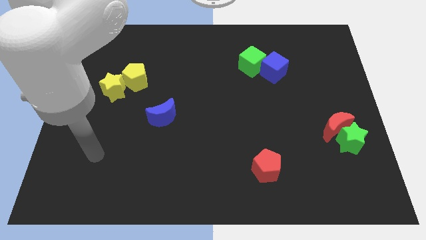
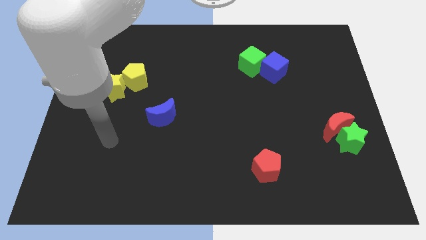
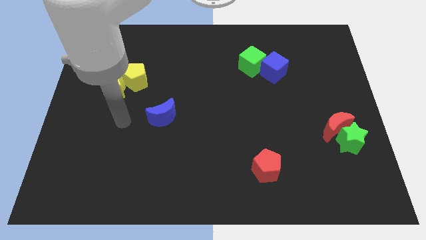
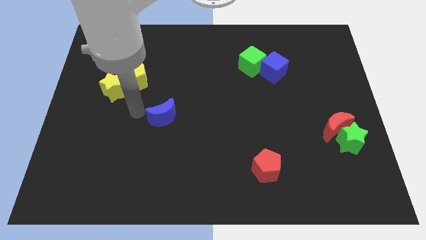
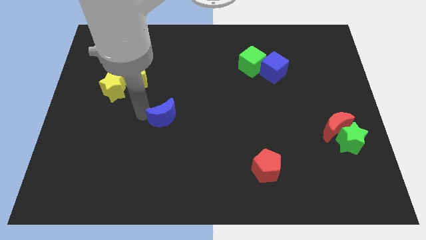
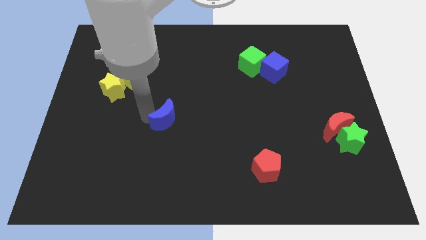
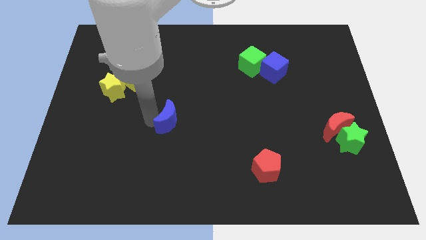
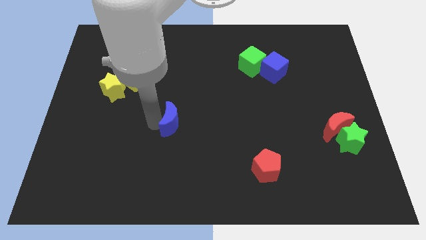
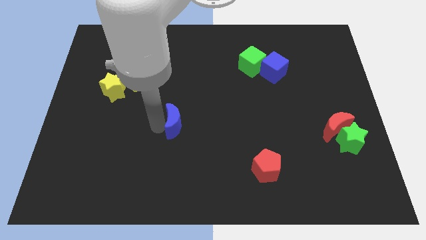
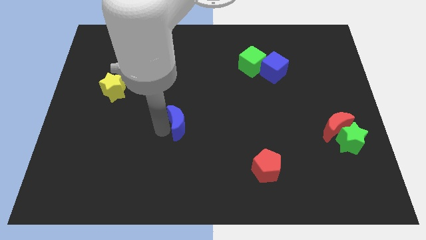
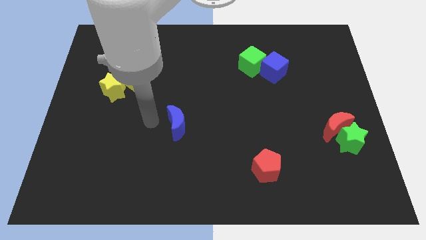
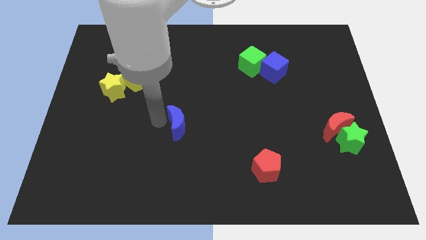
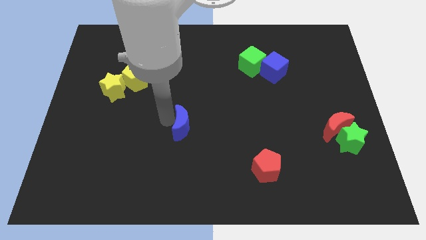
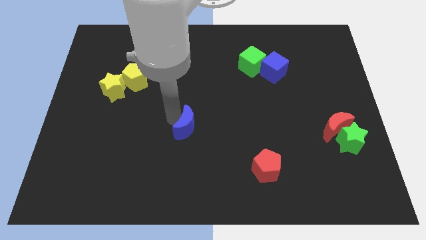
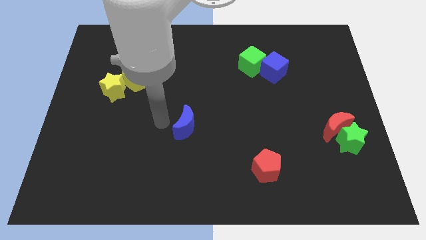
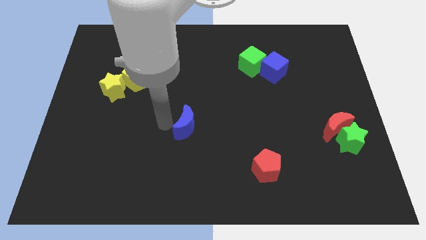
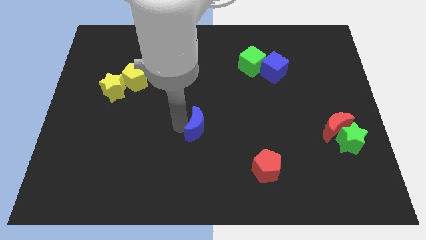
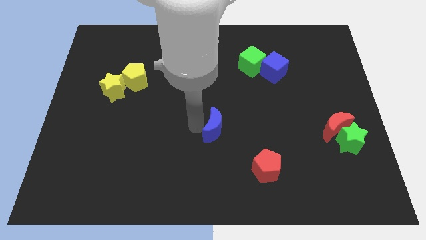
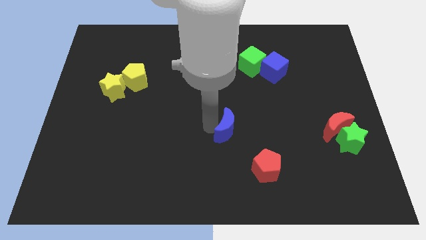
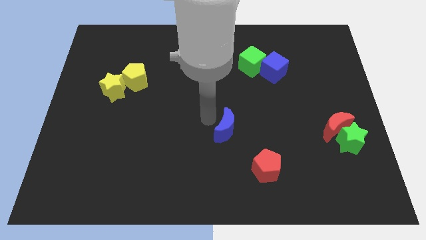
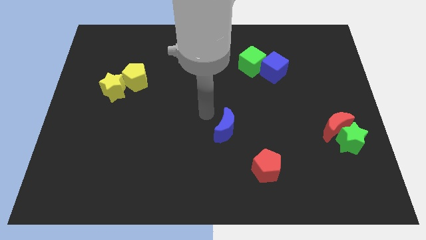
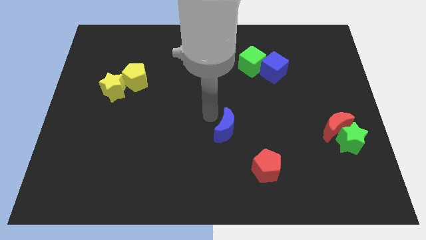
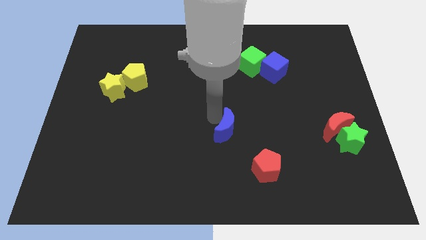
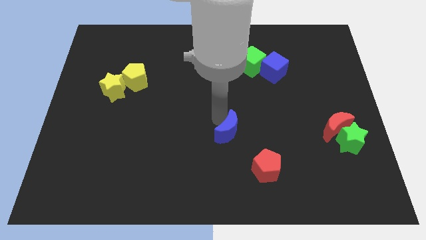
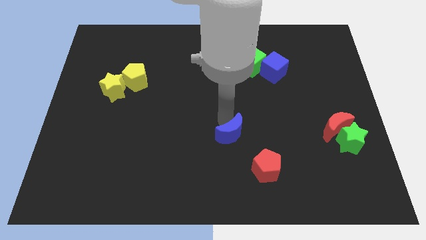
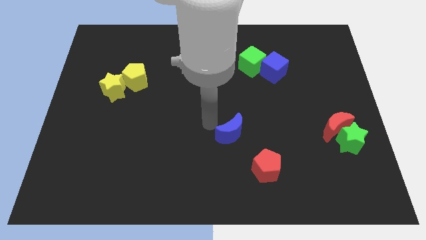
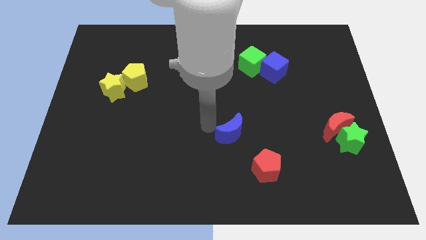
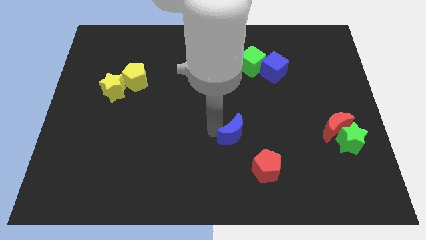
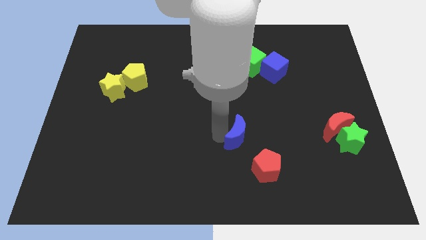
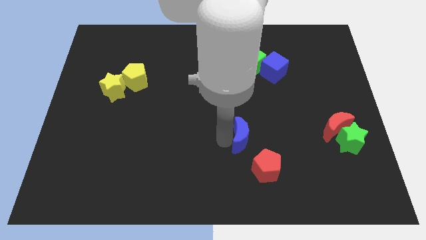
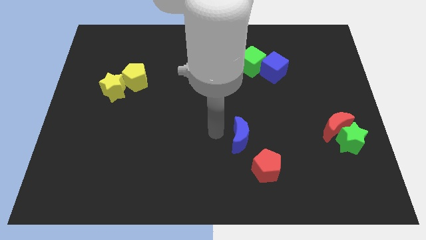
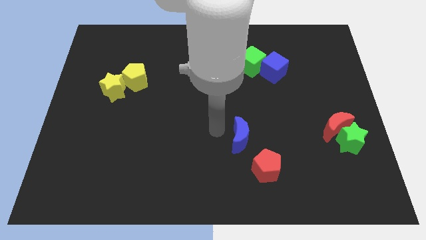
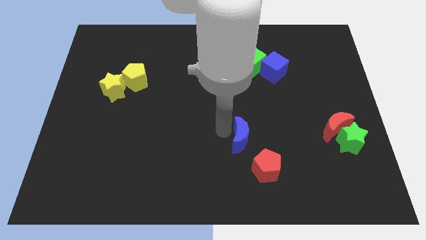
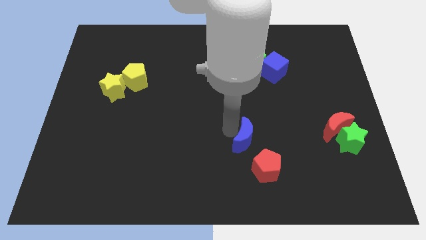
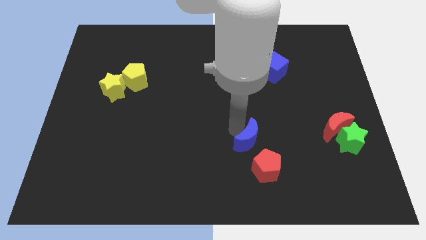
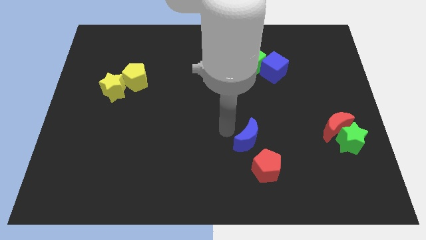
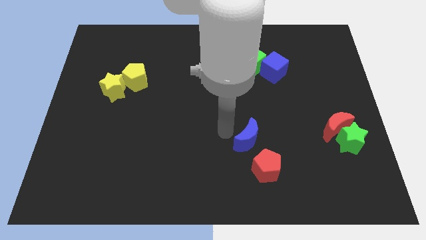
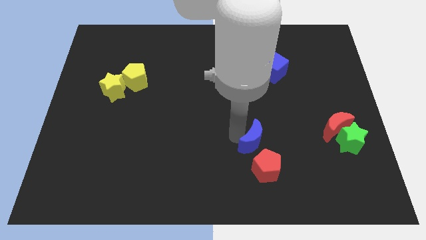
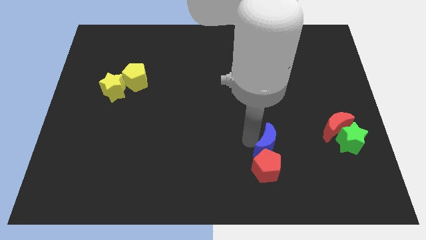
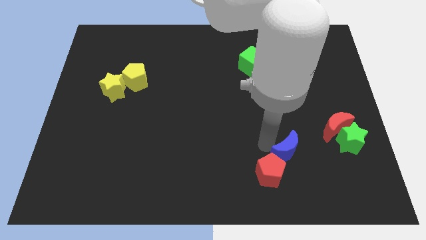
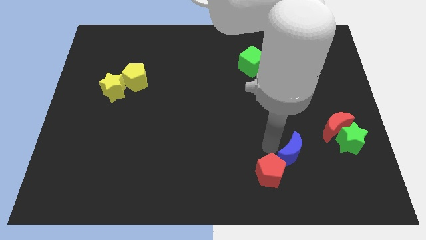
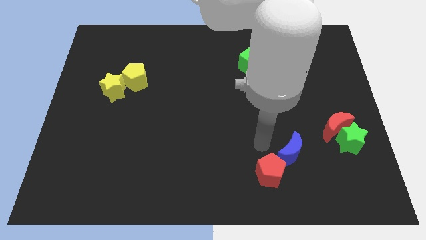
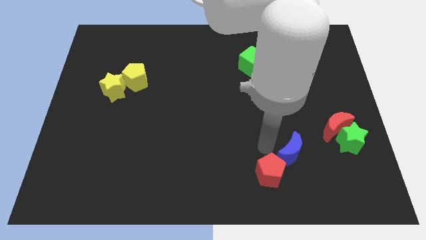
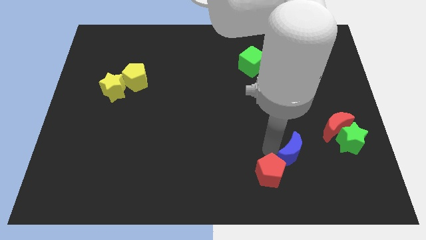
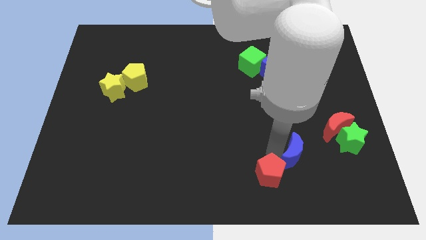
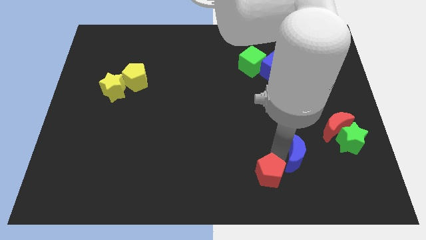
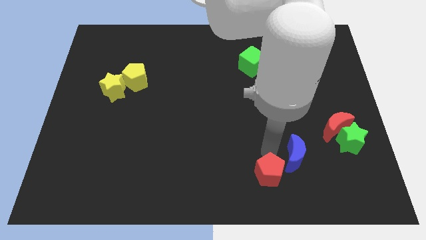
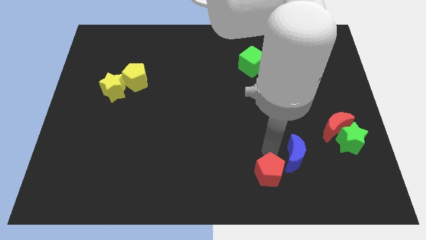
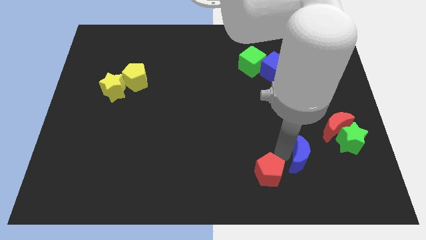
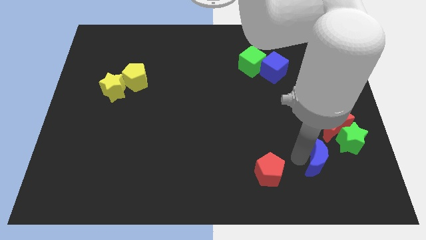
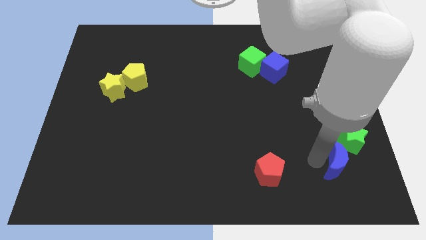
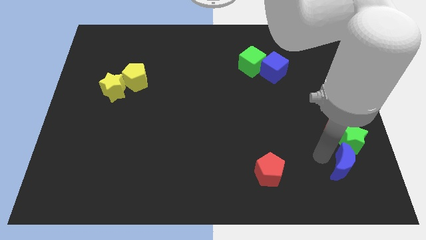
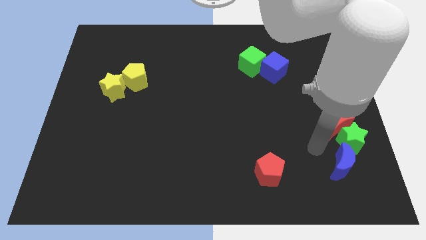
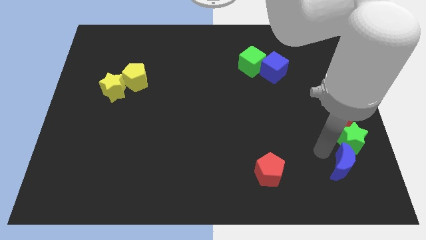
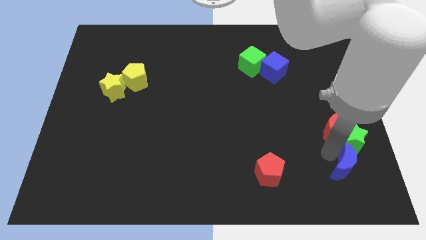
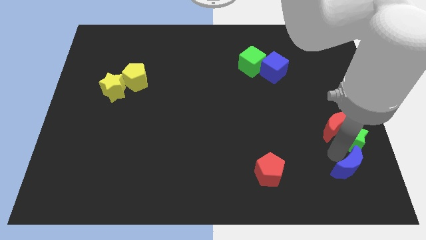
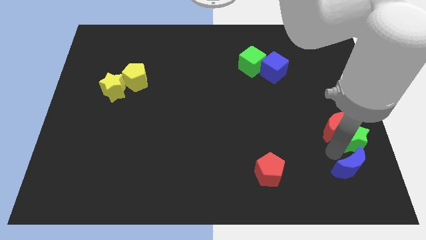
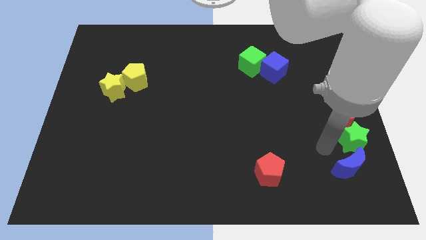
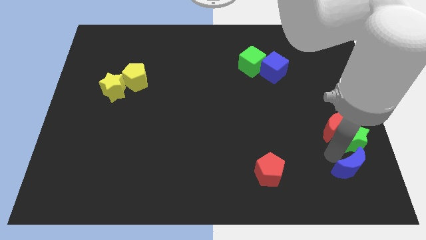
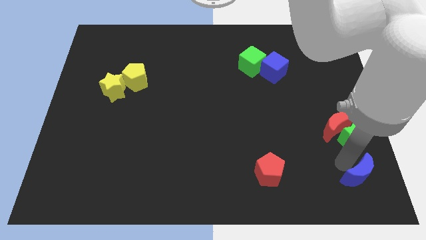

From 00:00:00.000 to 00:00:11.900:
slide the blue moon to the lower right corner
